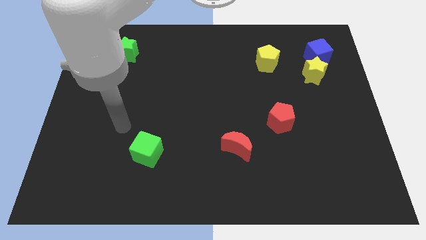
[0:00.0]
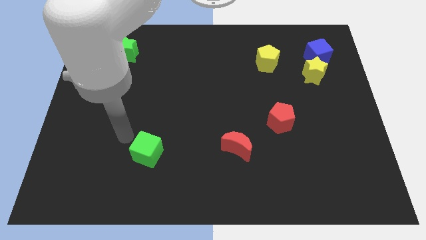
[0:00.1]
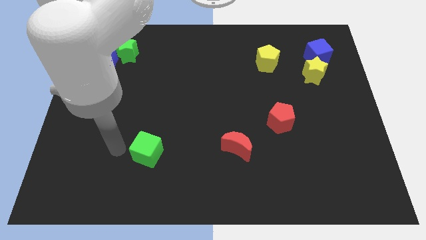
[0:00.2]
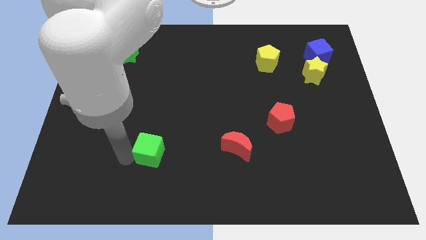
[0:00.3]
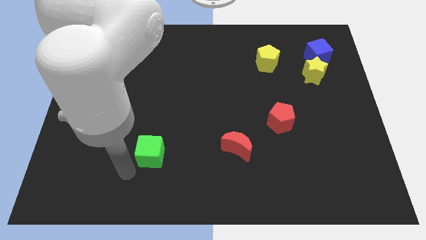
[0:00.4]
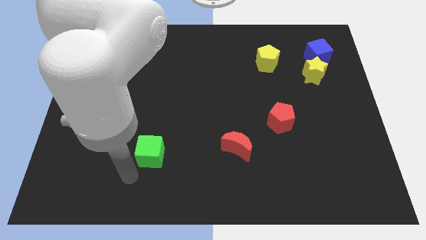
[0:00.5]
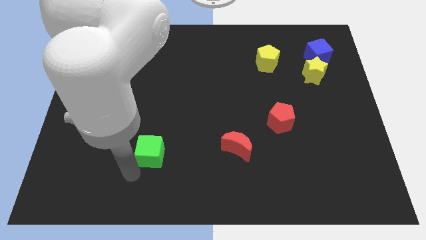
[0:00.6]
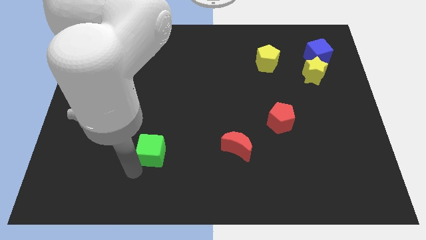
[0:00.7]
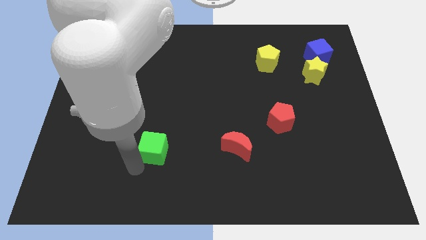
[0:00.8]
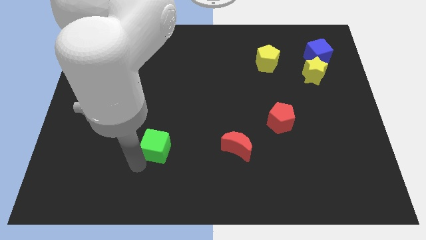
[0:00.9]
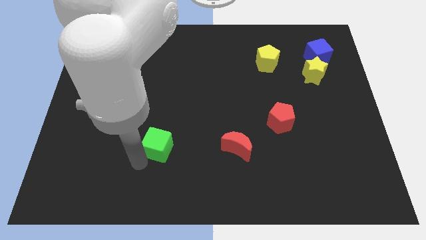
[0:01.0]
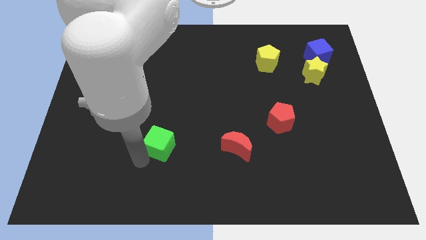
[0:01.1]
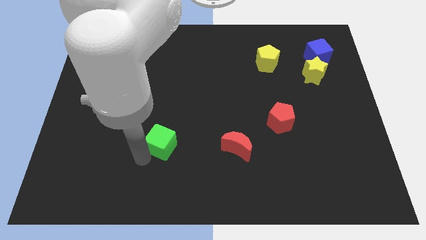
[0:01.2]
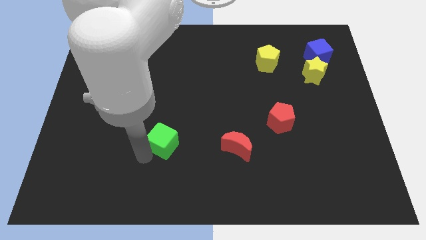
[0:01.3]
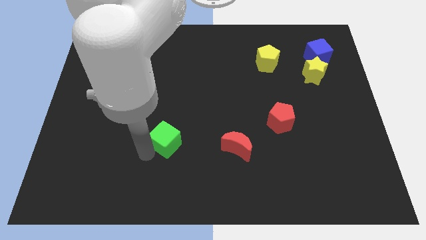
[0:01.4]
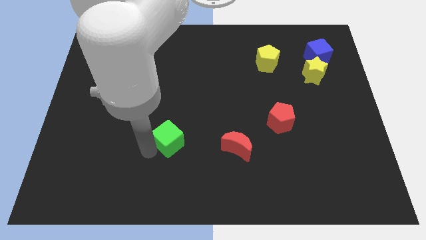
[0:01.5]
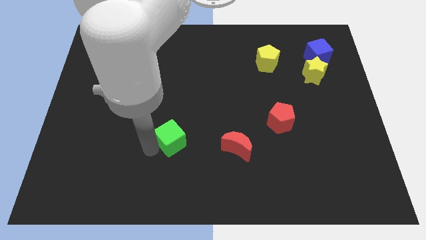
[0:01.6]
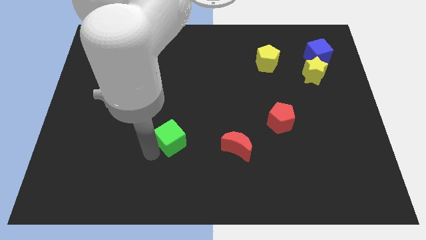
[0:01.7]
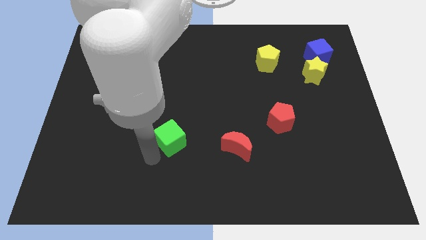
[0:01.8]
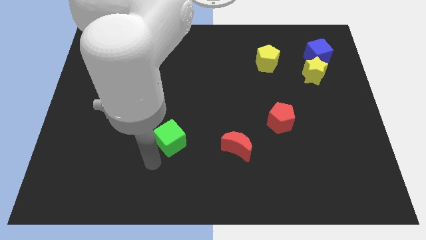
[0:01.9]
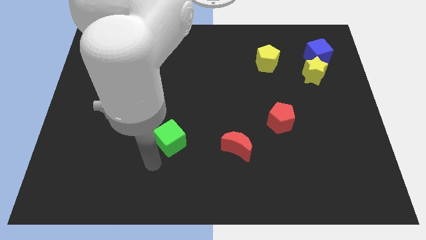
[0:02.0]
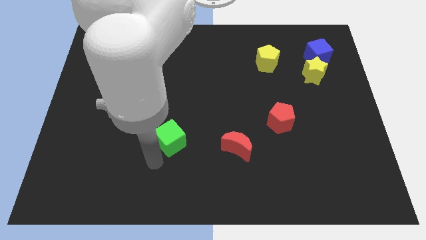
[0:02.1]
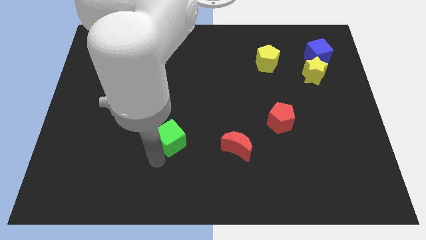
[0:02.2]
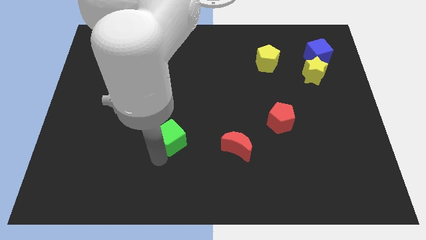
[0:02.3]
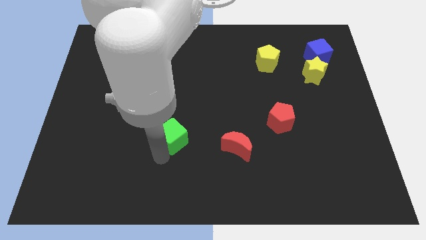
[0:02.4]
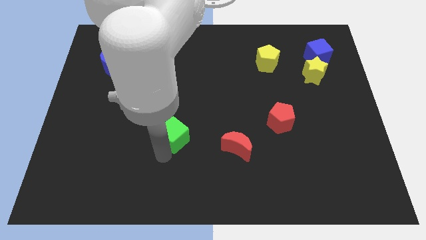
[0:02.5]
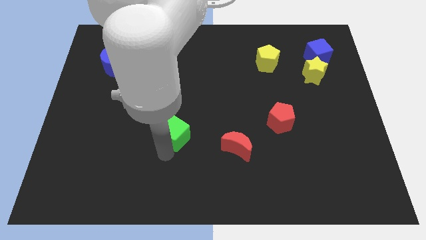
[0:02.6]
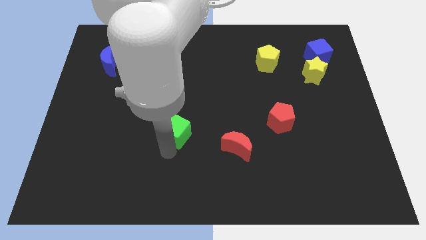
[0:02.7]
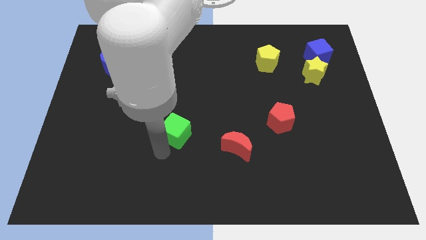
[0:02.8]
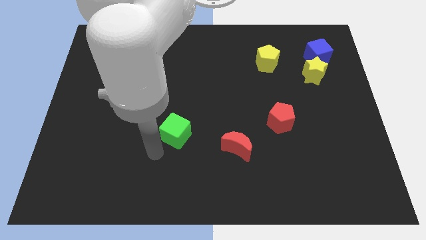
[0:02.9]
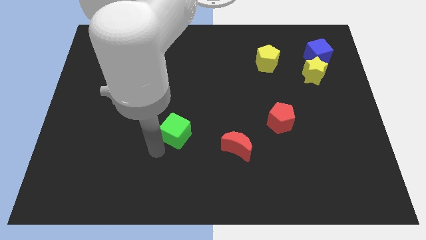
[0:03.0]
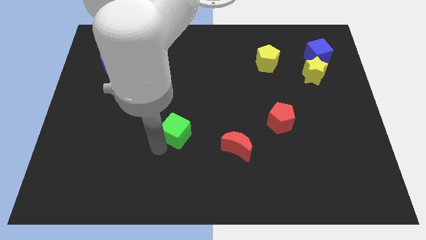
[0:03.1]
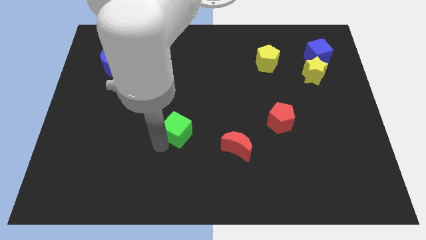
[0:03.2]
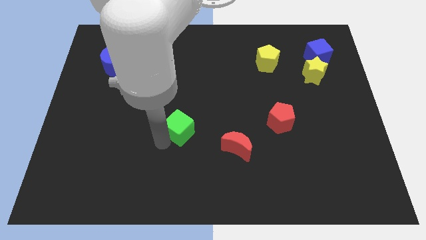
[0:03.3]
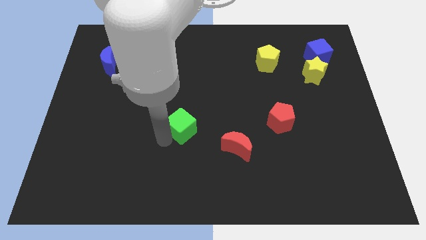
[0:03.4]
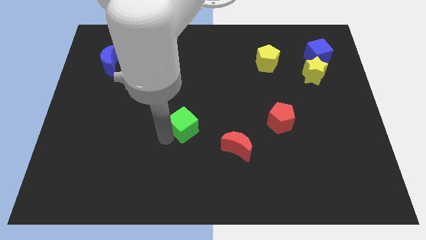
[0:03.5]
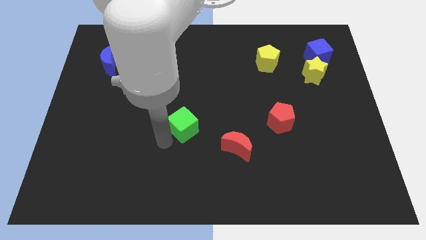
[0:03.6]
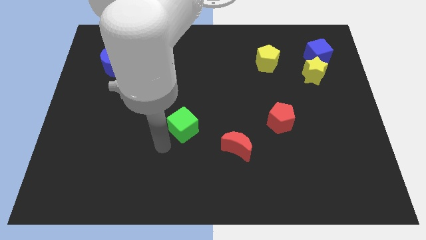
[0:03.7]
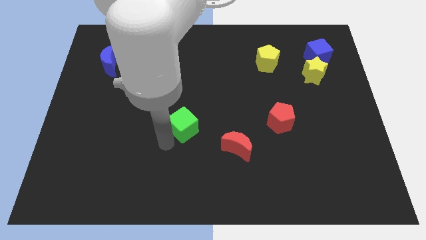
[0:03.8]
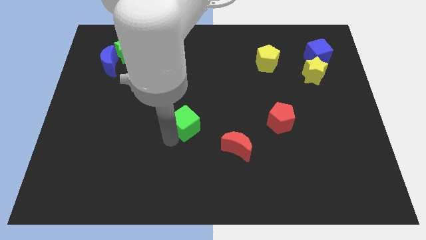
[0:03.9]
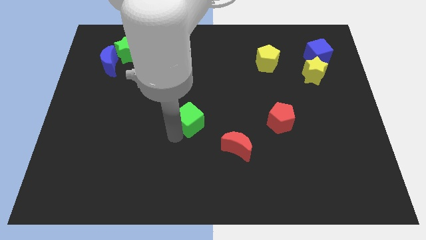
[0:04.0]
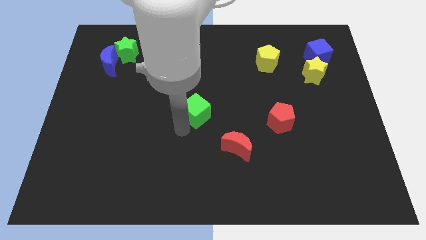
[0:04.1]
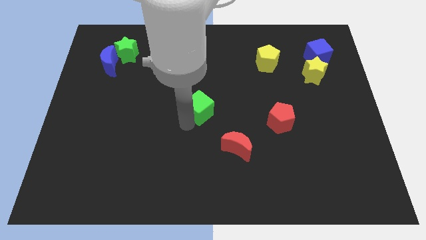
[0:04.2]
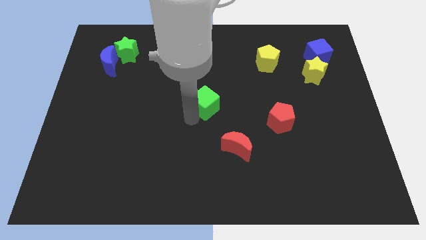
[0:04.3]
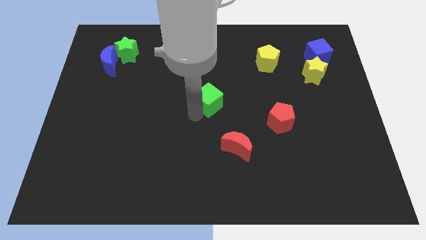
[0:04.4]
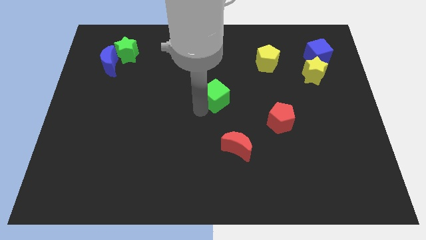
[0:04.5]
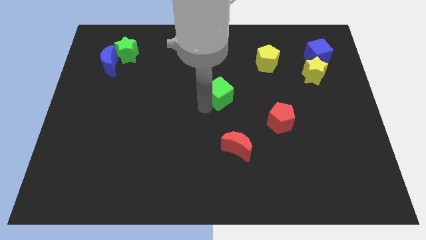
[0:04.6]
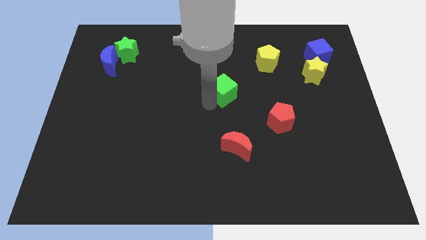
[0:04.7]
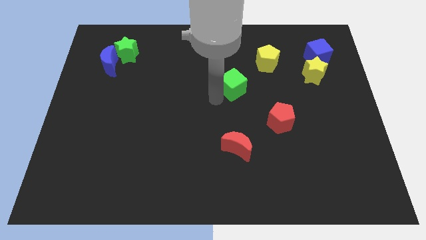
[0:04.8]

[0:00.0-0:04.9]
push the green cube to the bottom left side of the yellow pentagon

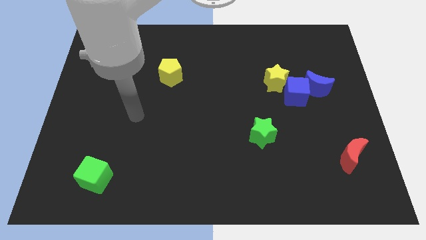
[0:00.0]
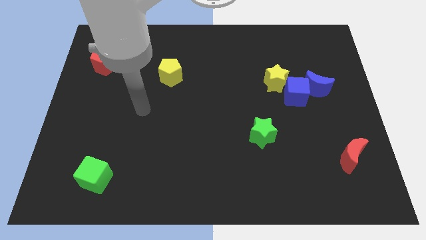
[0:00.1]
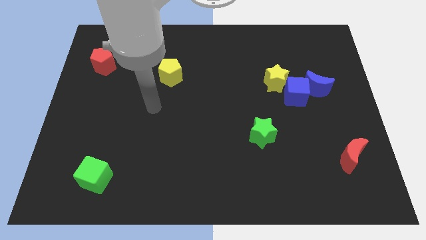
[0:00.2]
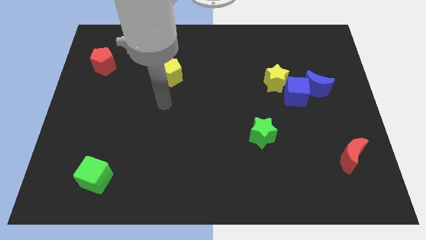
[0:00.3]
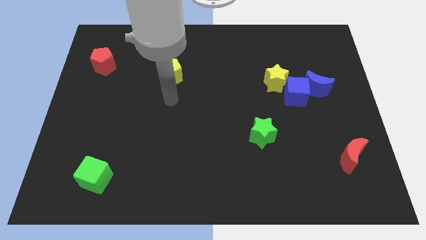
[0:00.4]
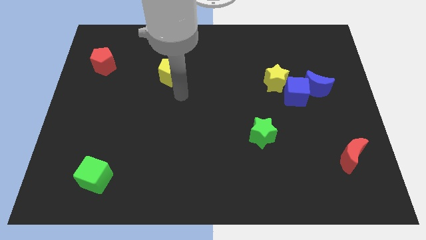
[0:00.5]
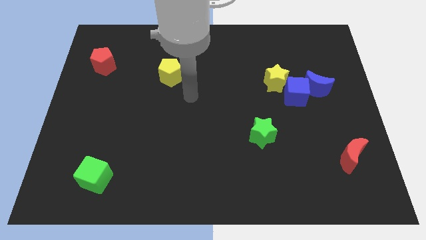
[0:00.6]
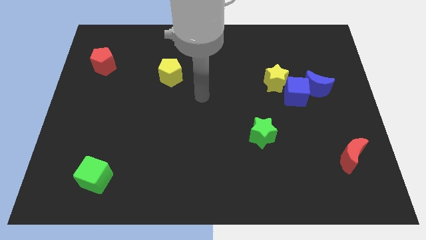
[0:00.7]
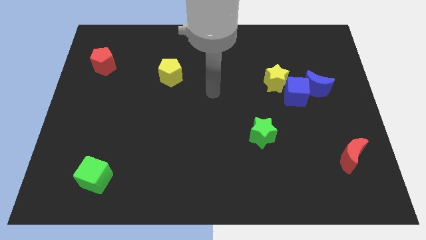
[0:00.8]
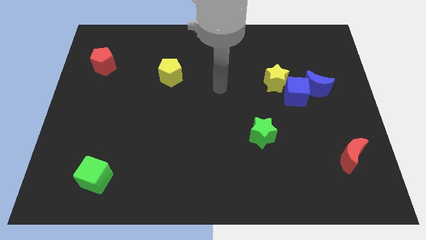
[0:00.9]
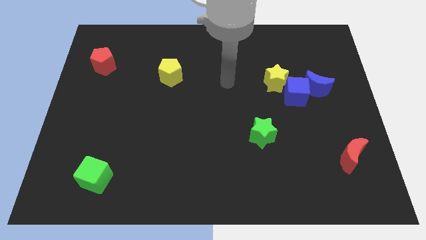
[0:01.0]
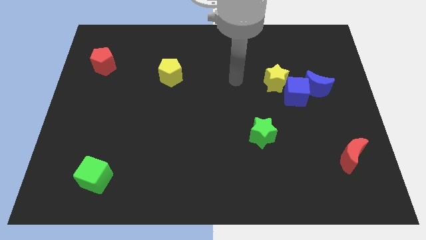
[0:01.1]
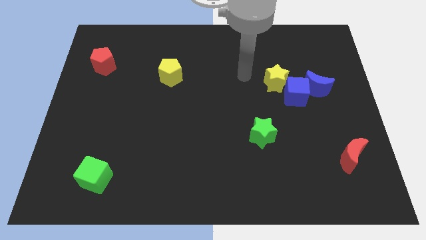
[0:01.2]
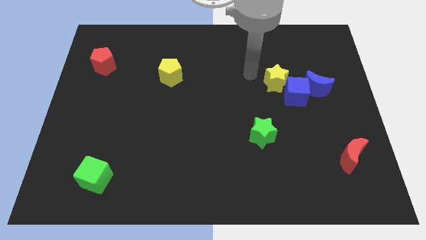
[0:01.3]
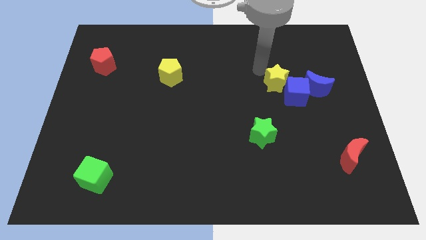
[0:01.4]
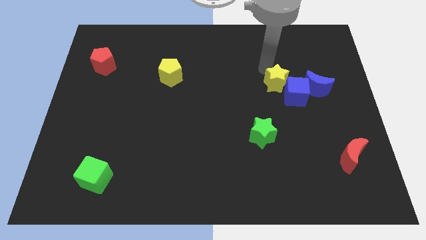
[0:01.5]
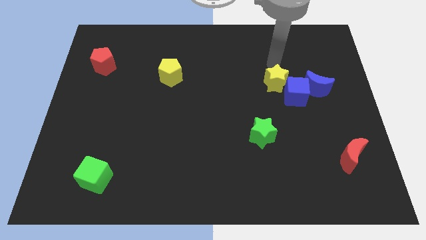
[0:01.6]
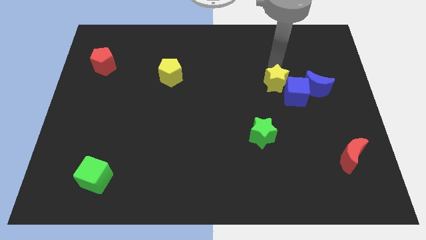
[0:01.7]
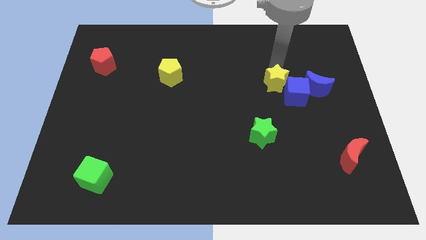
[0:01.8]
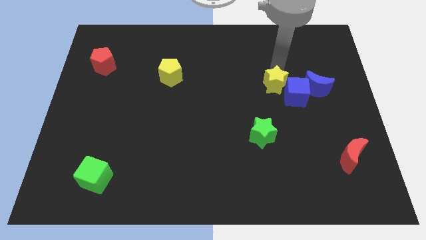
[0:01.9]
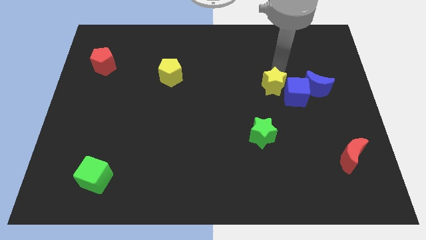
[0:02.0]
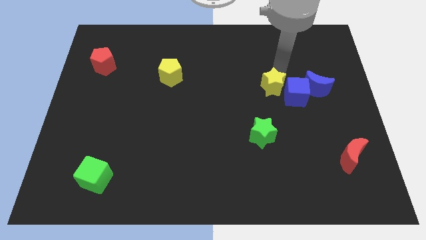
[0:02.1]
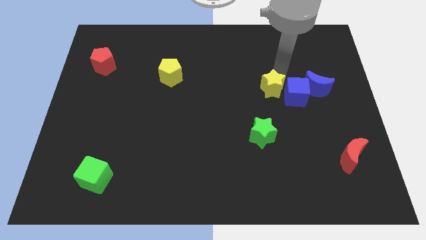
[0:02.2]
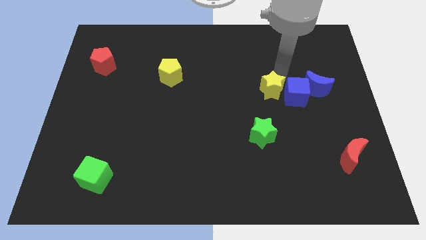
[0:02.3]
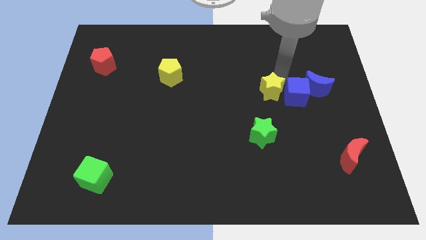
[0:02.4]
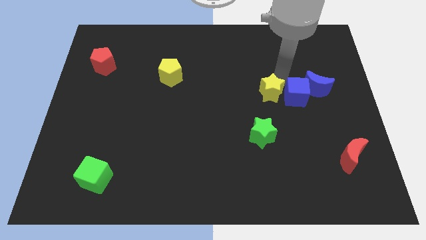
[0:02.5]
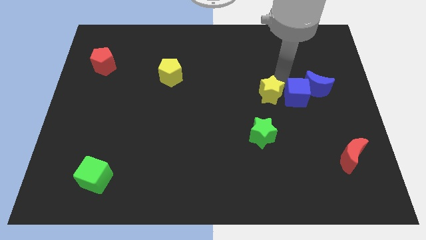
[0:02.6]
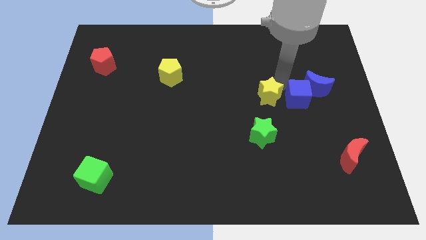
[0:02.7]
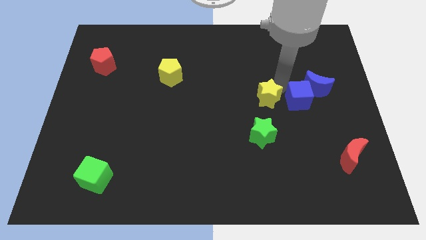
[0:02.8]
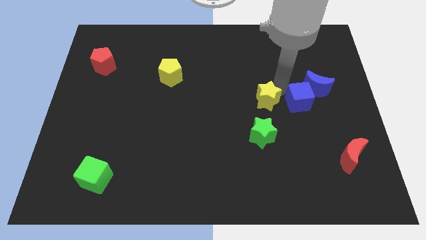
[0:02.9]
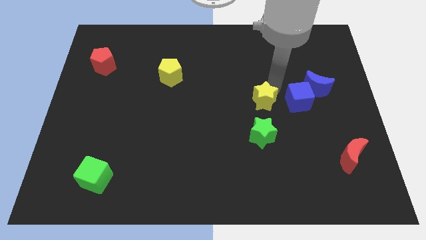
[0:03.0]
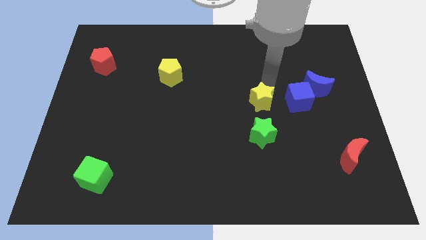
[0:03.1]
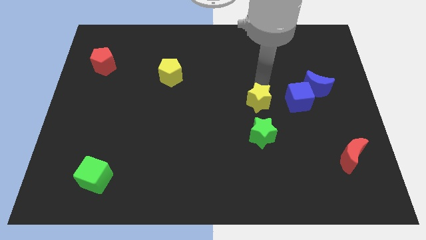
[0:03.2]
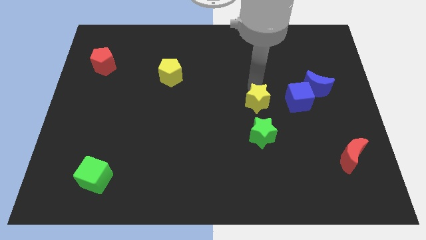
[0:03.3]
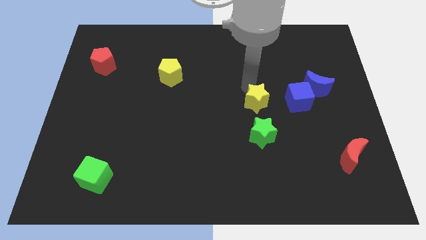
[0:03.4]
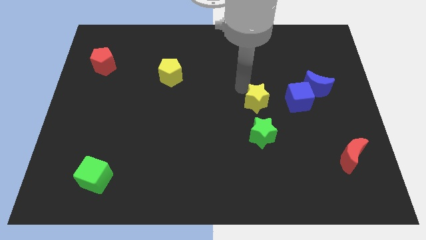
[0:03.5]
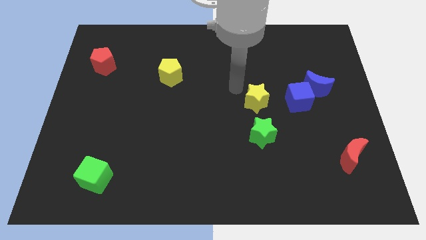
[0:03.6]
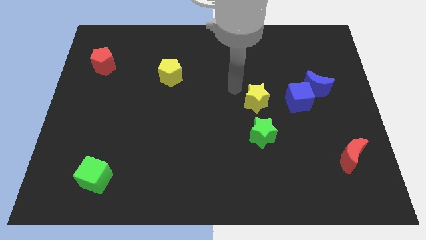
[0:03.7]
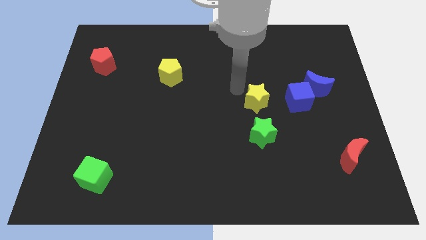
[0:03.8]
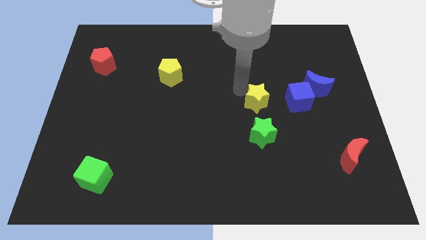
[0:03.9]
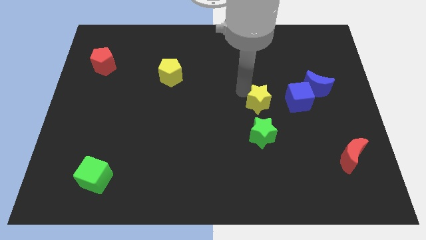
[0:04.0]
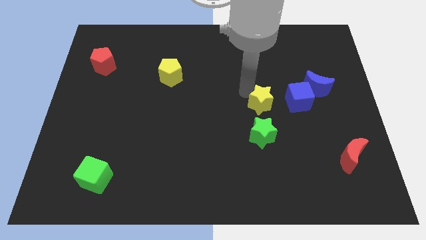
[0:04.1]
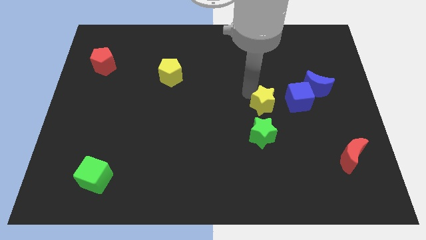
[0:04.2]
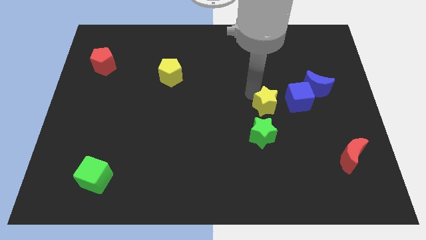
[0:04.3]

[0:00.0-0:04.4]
slide the yellow star to the top right of the green star
